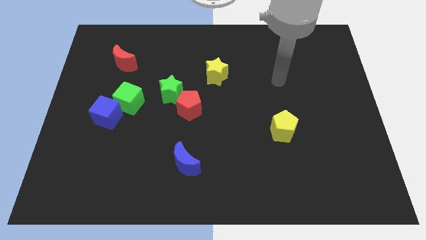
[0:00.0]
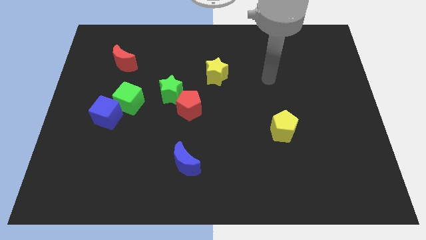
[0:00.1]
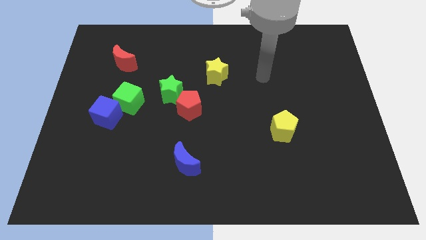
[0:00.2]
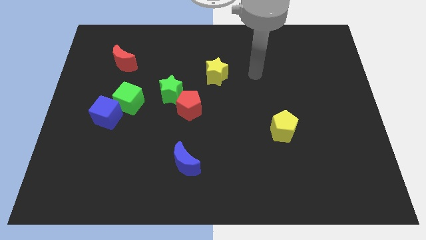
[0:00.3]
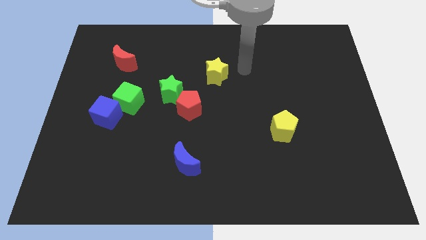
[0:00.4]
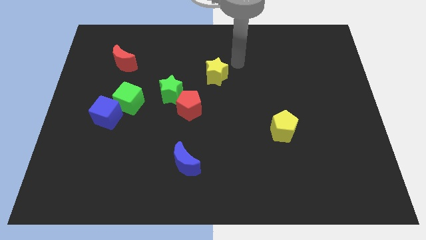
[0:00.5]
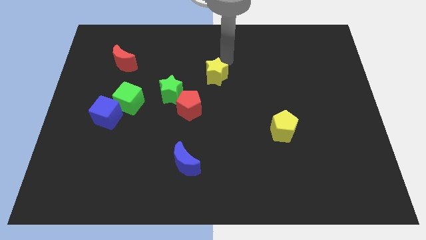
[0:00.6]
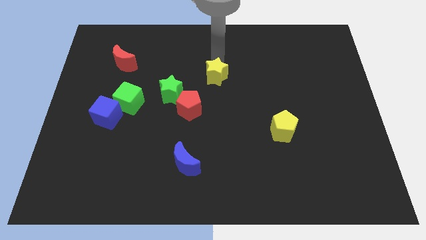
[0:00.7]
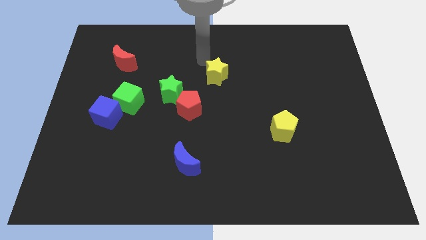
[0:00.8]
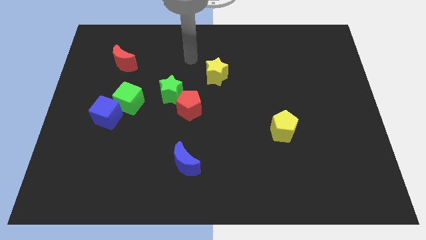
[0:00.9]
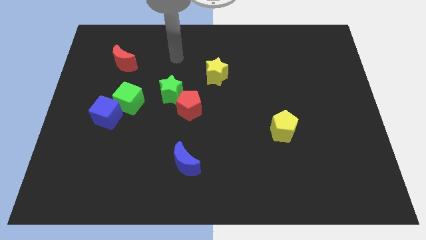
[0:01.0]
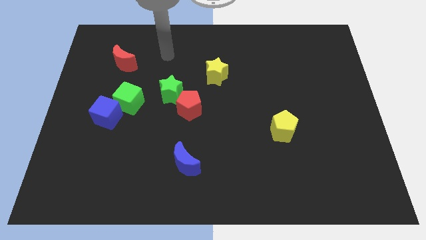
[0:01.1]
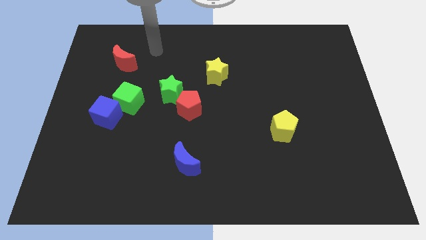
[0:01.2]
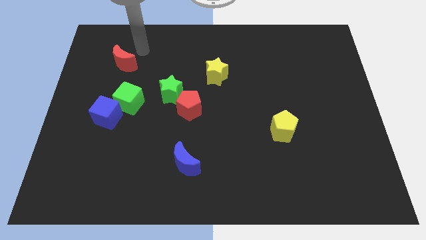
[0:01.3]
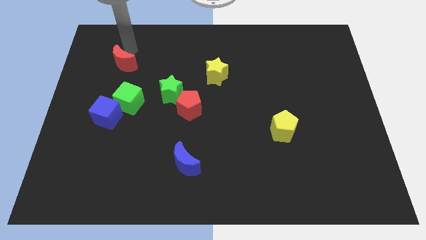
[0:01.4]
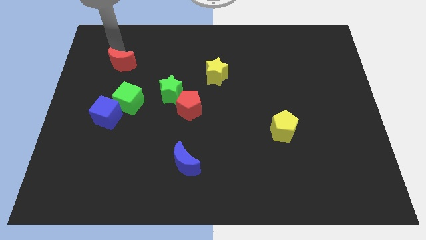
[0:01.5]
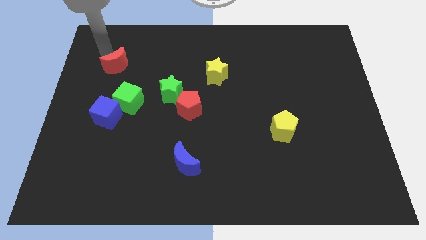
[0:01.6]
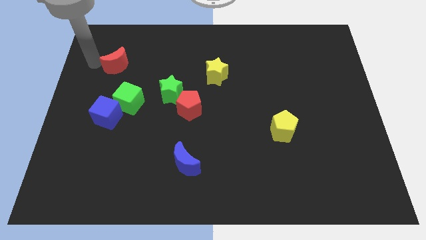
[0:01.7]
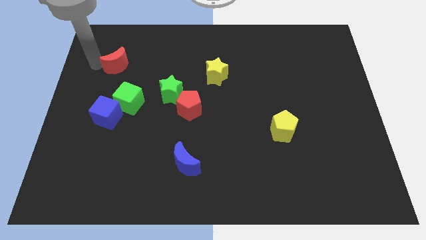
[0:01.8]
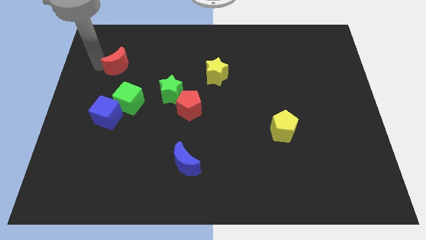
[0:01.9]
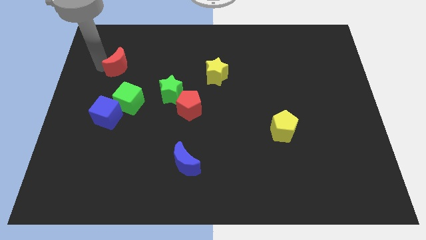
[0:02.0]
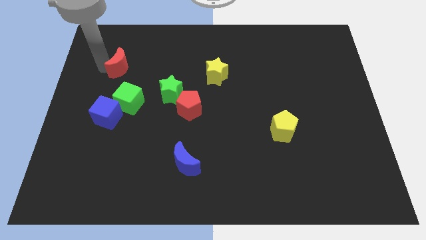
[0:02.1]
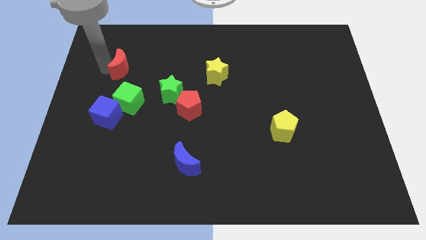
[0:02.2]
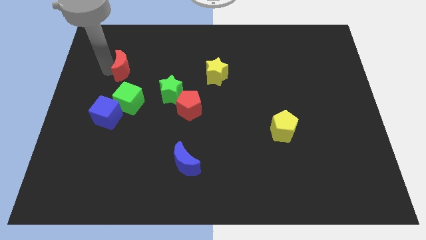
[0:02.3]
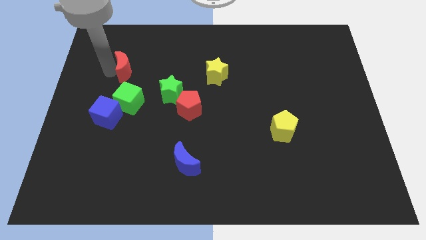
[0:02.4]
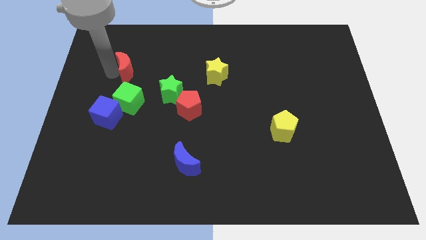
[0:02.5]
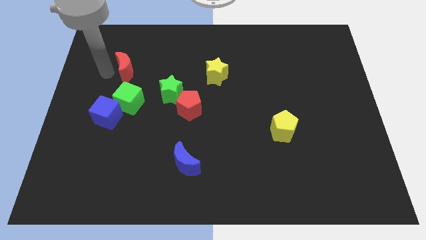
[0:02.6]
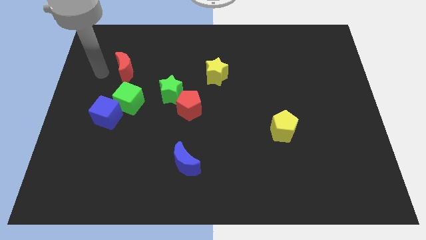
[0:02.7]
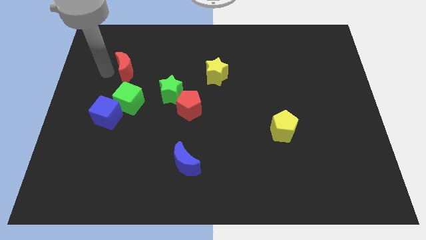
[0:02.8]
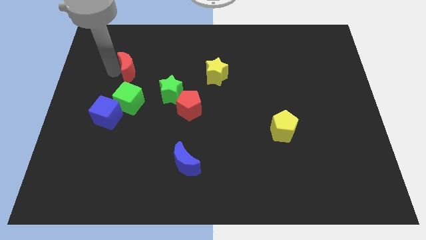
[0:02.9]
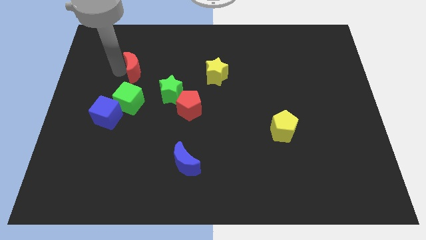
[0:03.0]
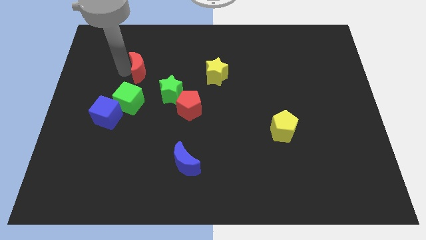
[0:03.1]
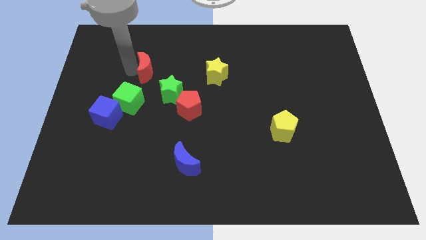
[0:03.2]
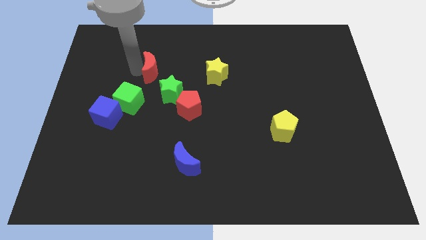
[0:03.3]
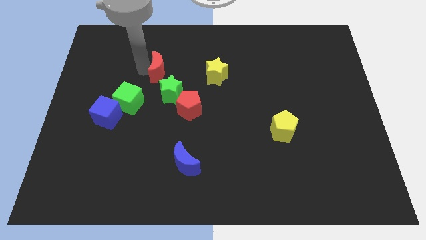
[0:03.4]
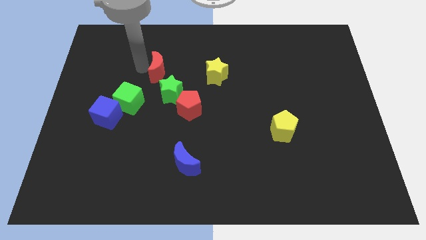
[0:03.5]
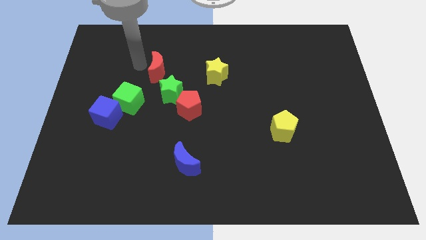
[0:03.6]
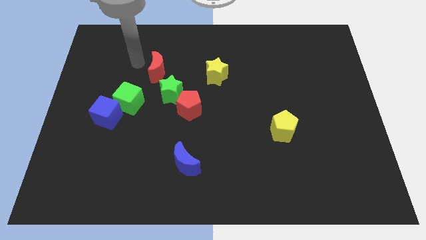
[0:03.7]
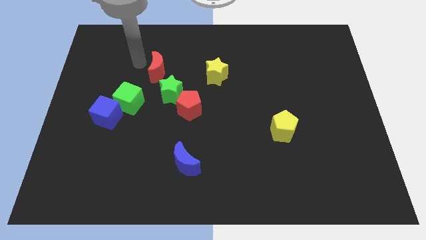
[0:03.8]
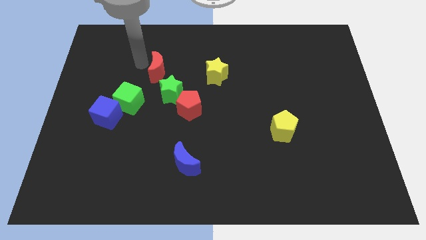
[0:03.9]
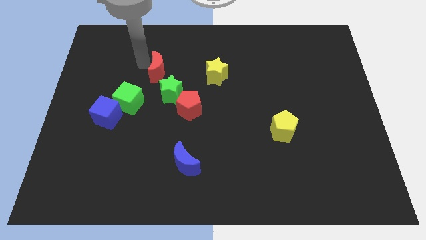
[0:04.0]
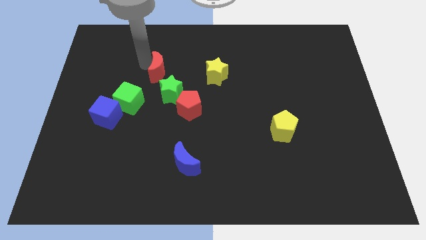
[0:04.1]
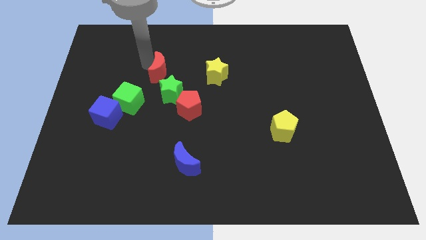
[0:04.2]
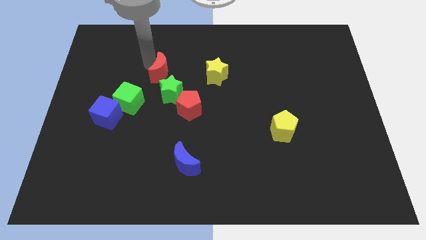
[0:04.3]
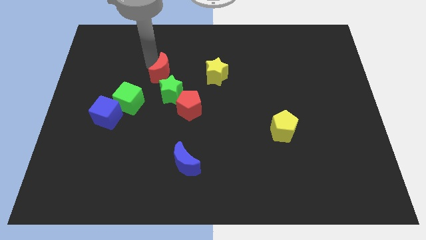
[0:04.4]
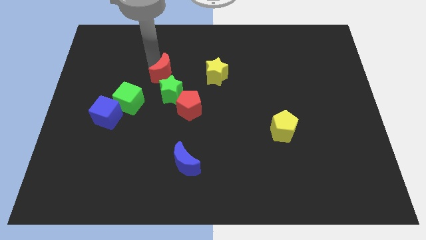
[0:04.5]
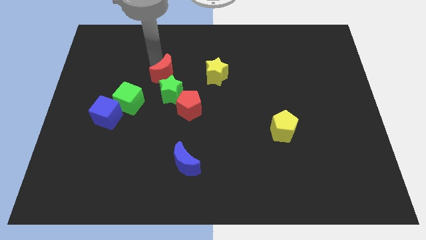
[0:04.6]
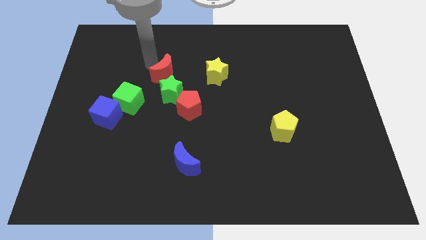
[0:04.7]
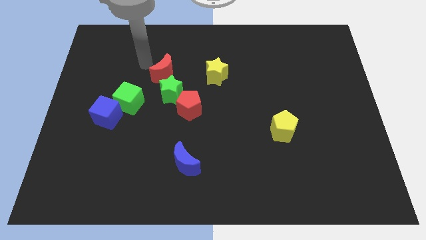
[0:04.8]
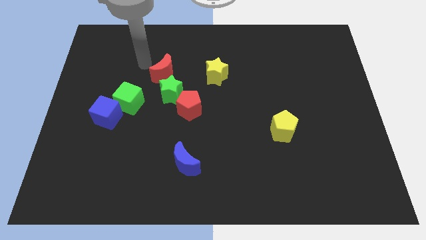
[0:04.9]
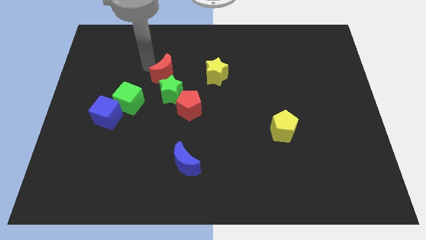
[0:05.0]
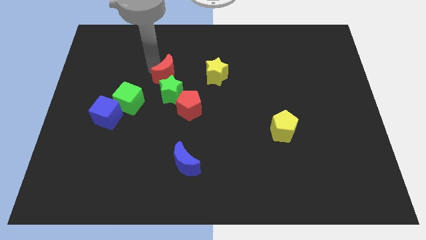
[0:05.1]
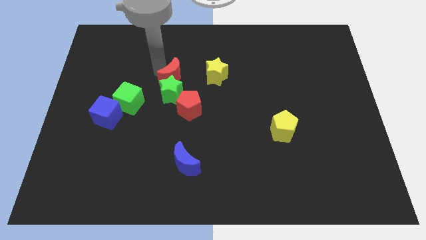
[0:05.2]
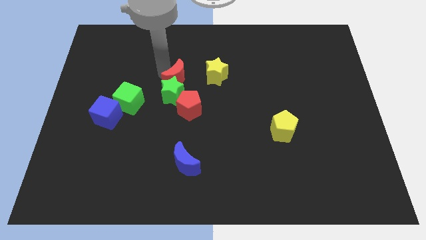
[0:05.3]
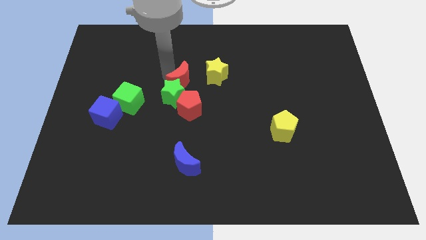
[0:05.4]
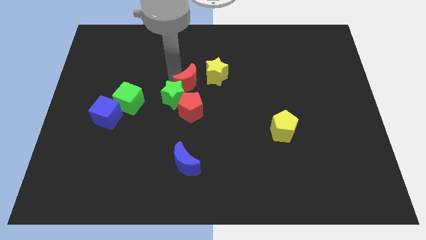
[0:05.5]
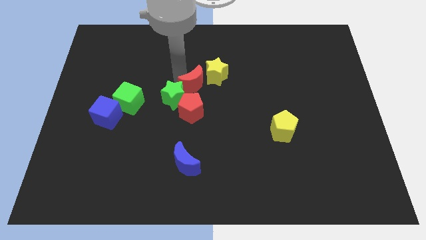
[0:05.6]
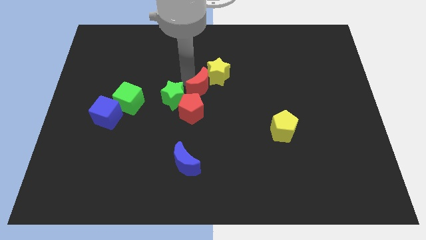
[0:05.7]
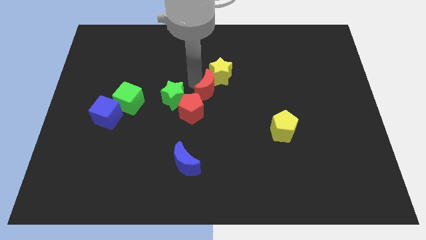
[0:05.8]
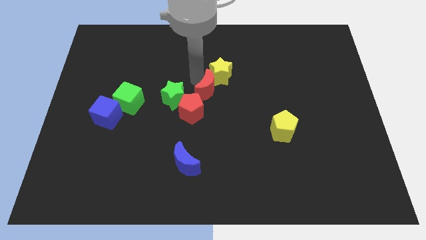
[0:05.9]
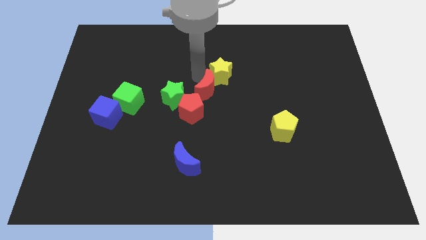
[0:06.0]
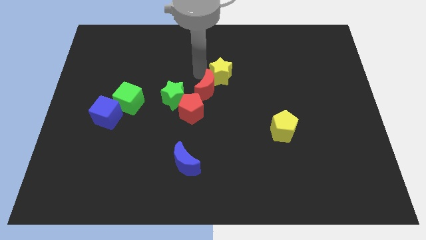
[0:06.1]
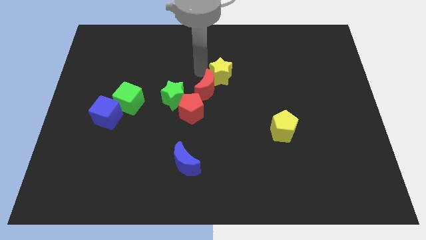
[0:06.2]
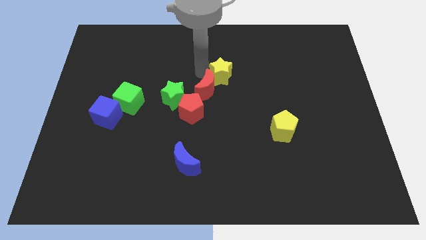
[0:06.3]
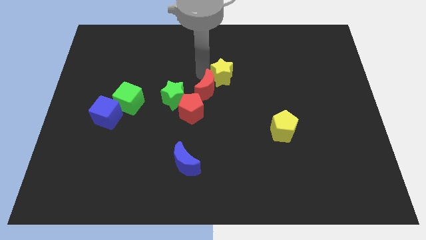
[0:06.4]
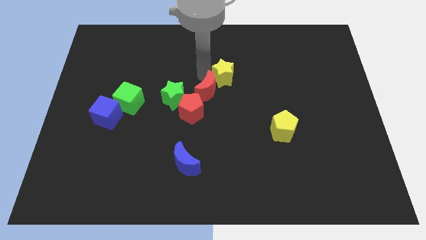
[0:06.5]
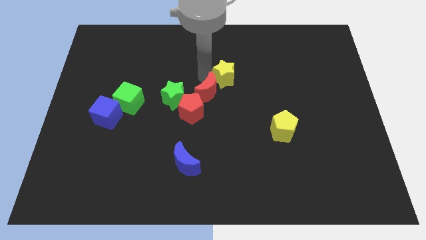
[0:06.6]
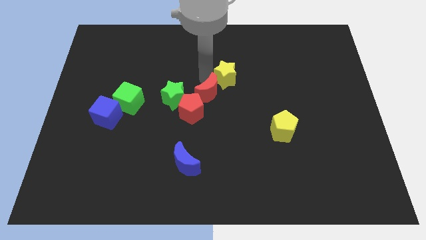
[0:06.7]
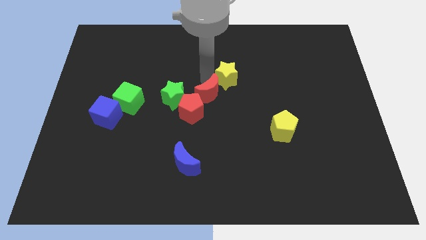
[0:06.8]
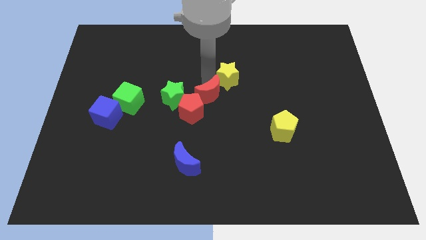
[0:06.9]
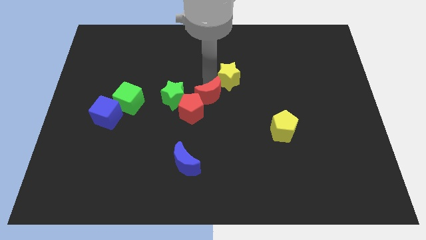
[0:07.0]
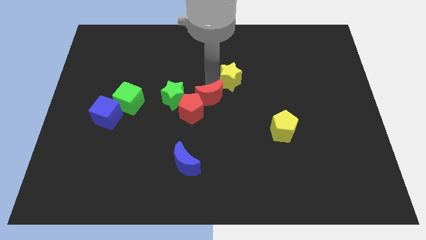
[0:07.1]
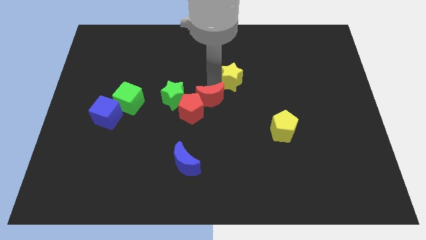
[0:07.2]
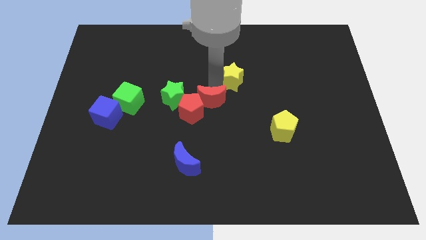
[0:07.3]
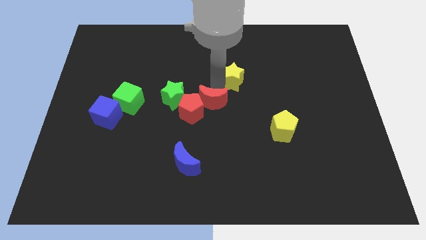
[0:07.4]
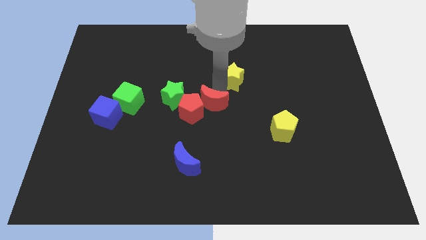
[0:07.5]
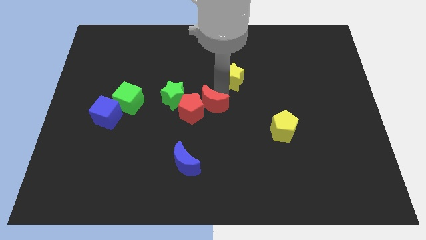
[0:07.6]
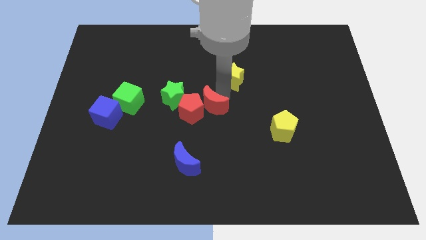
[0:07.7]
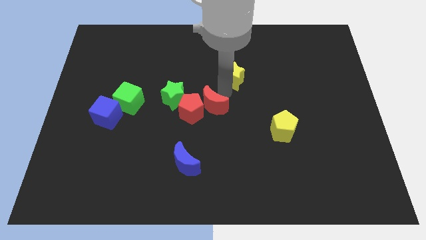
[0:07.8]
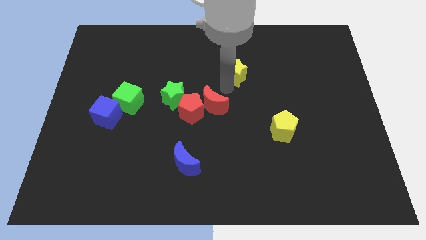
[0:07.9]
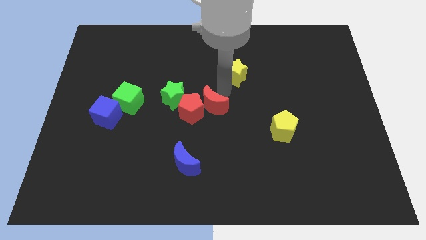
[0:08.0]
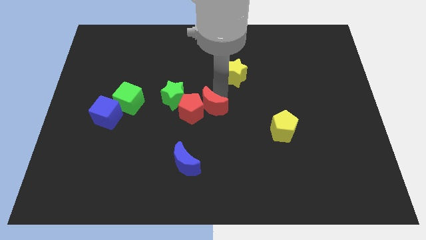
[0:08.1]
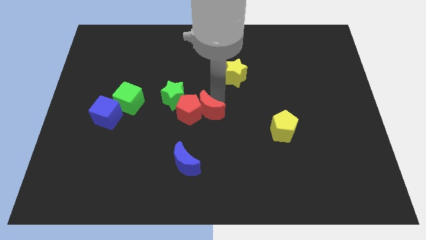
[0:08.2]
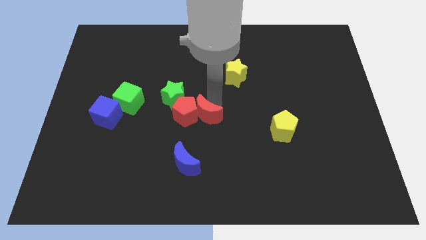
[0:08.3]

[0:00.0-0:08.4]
slide the red moon above the blue moon
